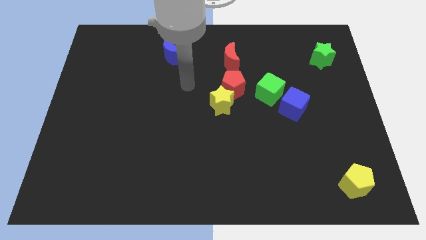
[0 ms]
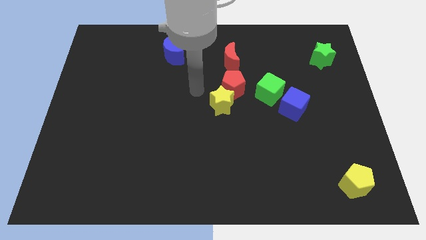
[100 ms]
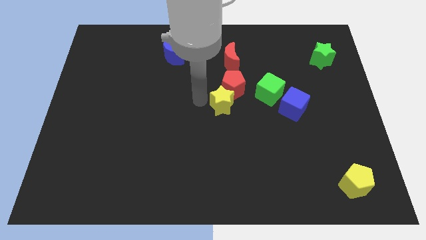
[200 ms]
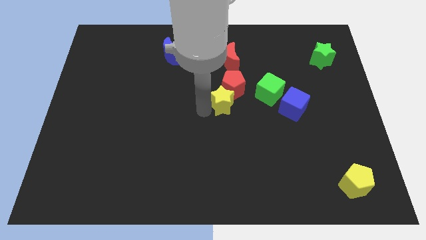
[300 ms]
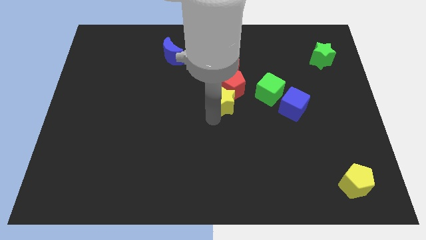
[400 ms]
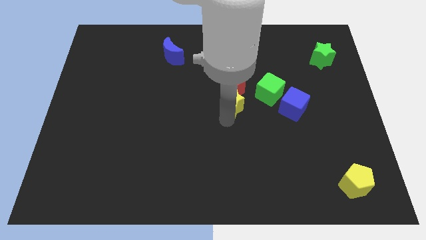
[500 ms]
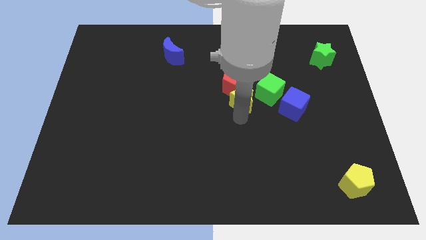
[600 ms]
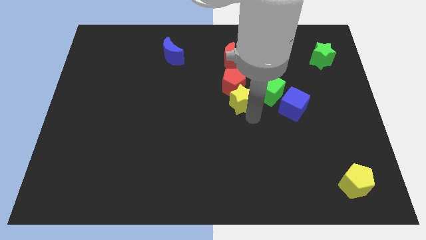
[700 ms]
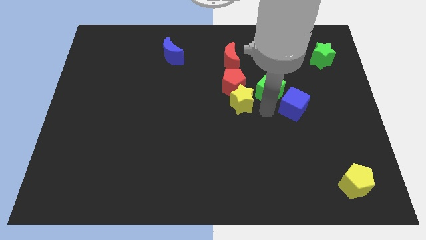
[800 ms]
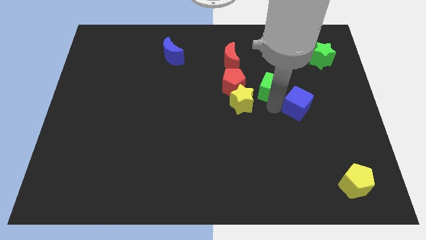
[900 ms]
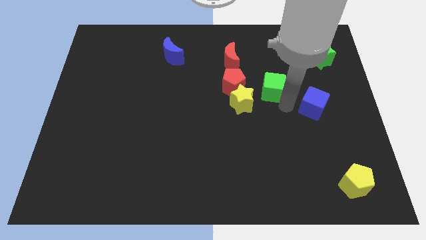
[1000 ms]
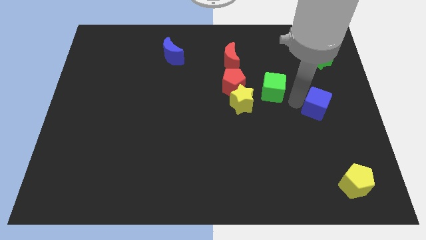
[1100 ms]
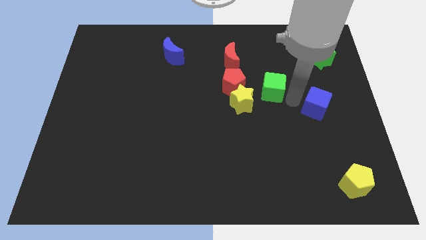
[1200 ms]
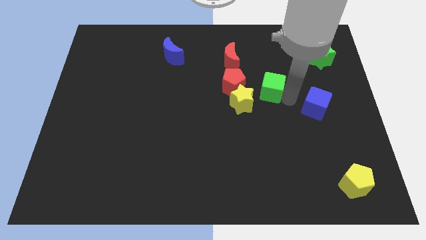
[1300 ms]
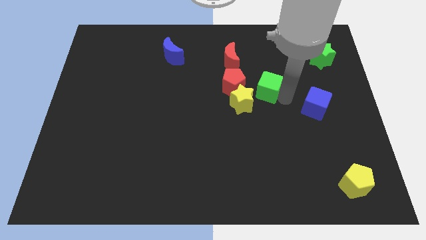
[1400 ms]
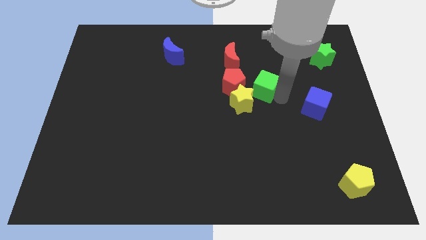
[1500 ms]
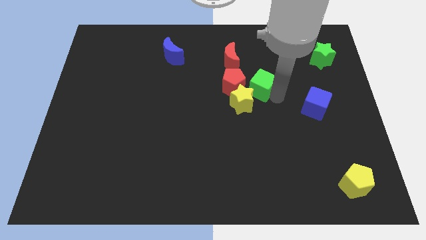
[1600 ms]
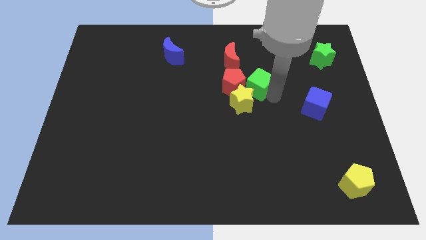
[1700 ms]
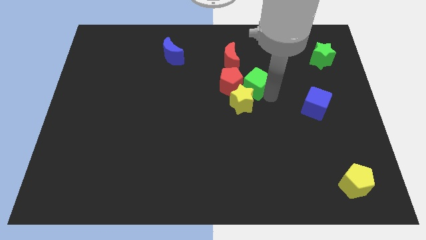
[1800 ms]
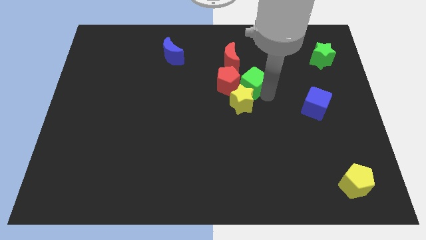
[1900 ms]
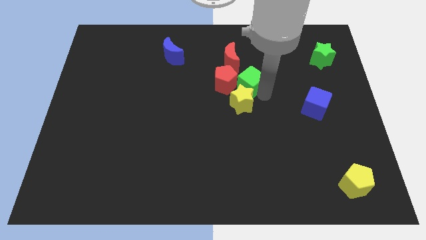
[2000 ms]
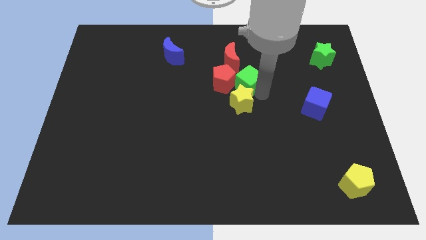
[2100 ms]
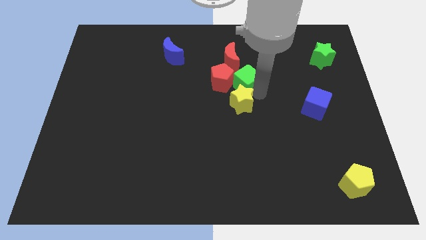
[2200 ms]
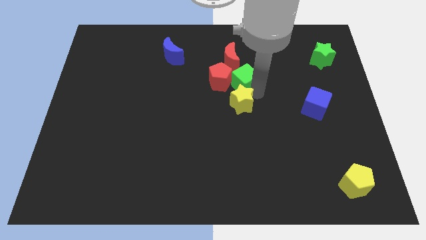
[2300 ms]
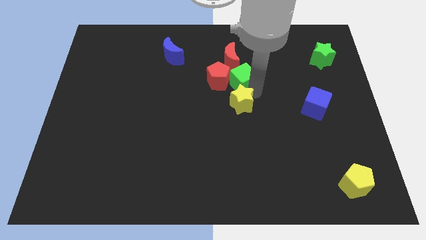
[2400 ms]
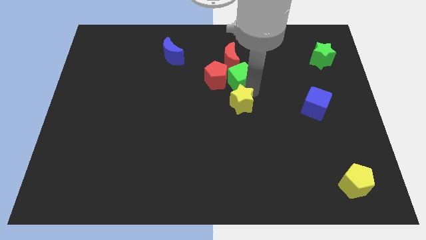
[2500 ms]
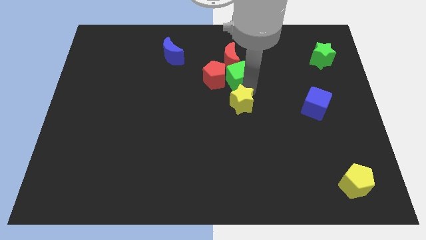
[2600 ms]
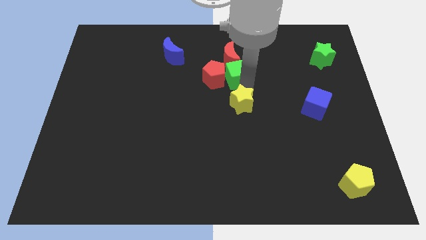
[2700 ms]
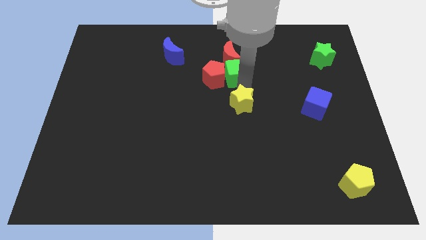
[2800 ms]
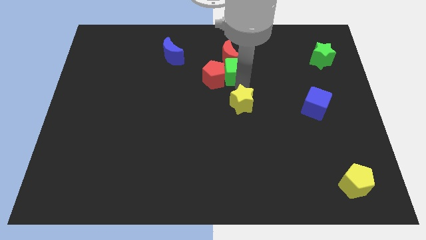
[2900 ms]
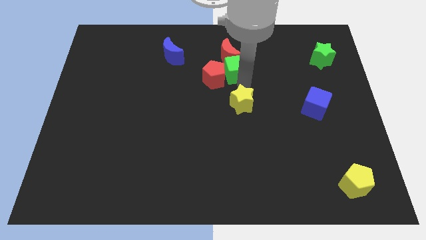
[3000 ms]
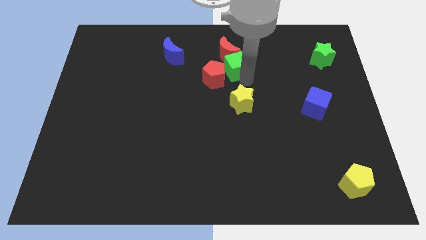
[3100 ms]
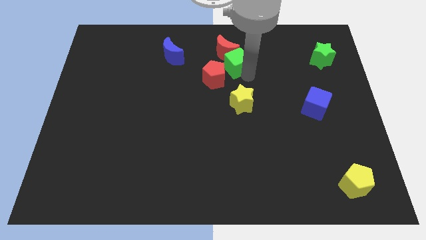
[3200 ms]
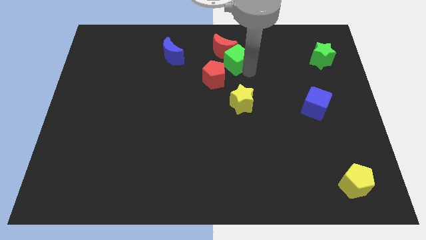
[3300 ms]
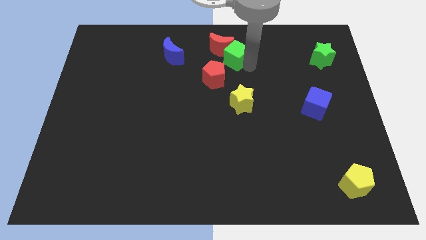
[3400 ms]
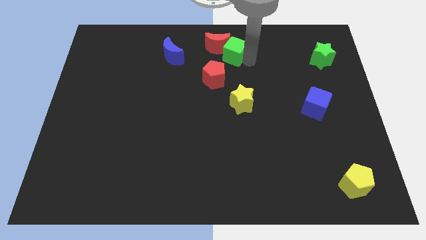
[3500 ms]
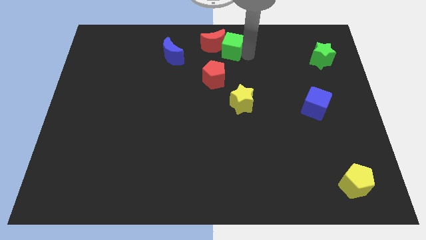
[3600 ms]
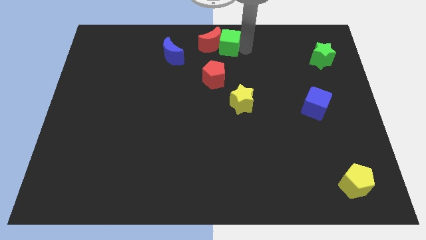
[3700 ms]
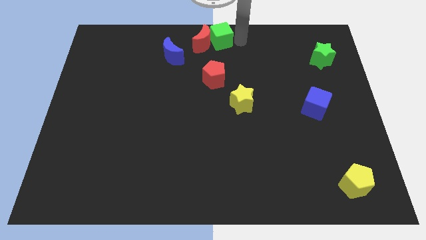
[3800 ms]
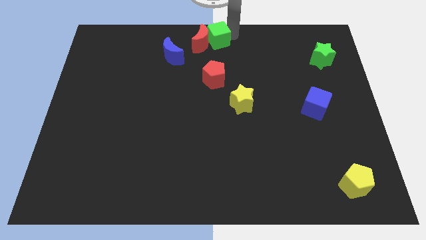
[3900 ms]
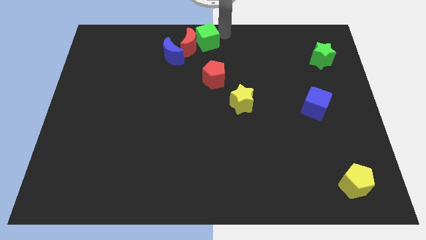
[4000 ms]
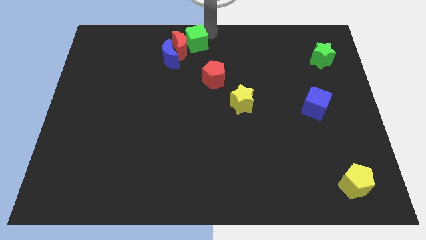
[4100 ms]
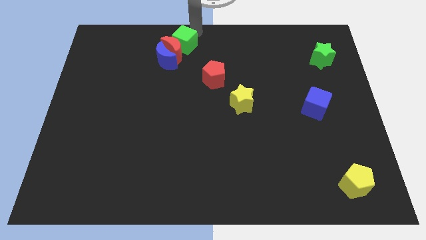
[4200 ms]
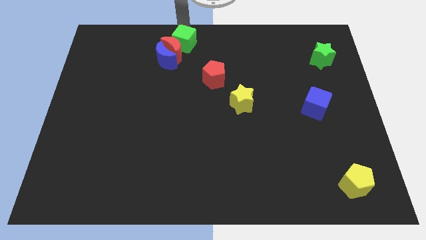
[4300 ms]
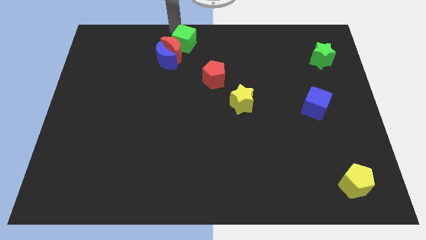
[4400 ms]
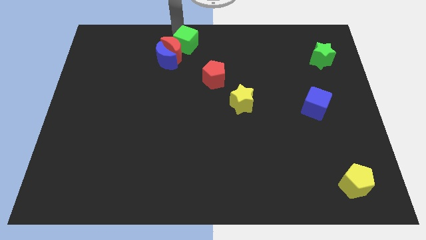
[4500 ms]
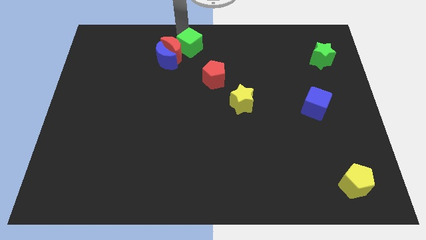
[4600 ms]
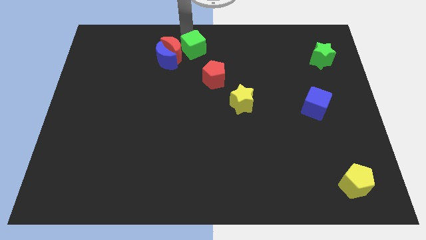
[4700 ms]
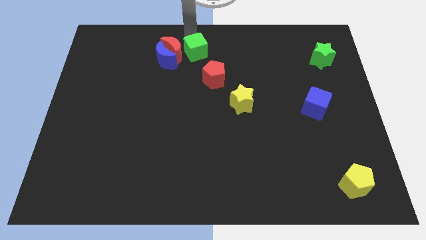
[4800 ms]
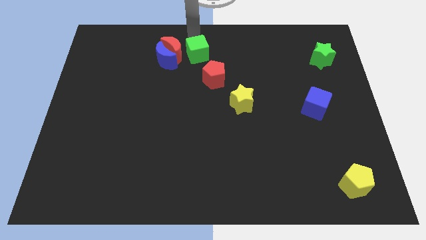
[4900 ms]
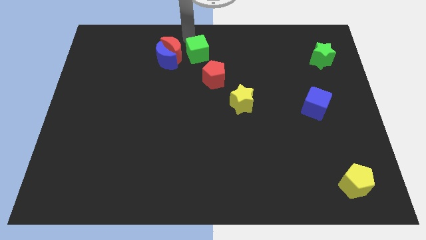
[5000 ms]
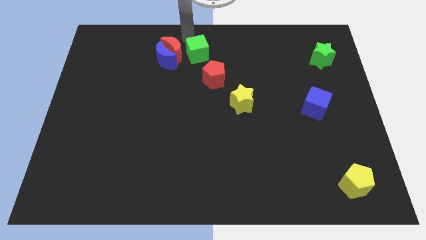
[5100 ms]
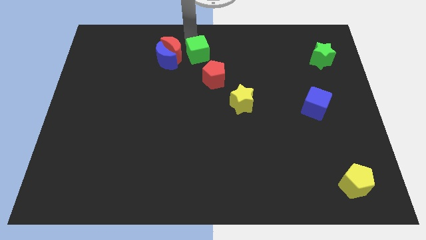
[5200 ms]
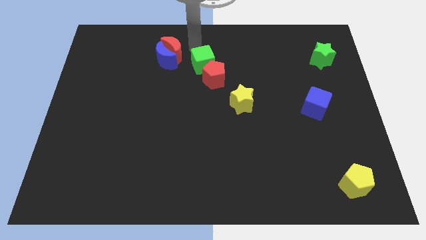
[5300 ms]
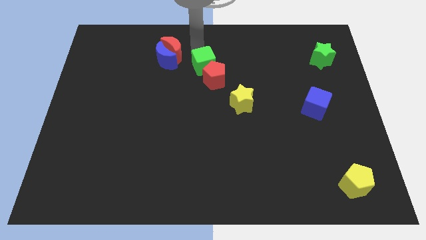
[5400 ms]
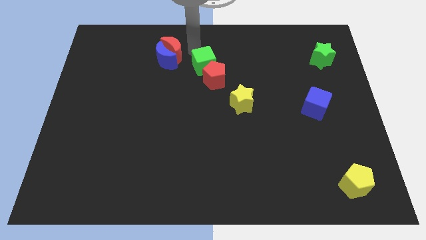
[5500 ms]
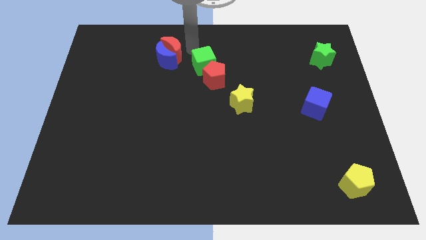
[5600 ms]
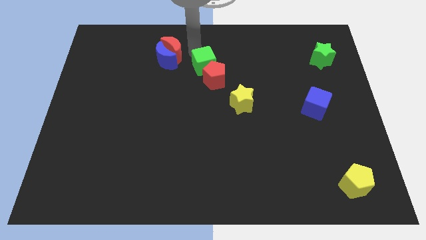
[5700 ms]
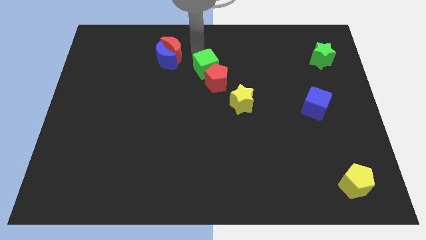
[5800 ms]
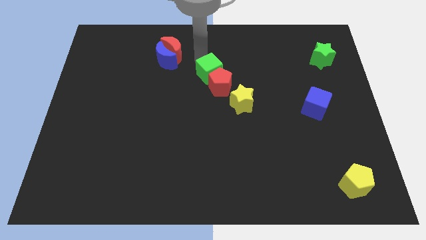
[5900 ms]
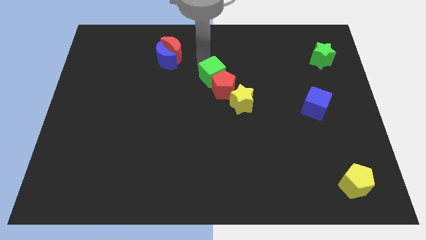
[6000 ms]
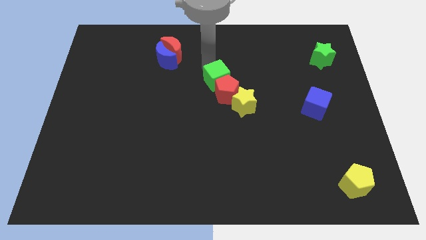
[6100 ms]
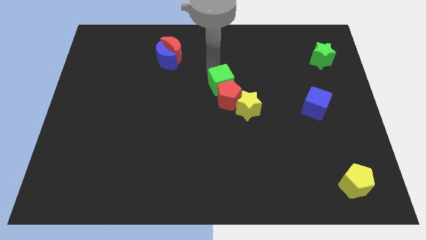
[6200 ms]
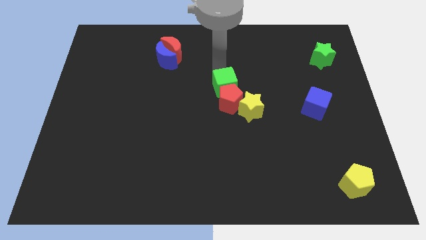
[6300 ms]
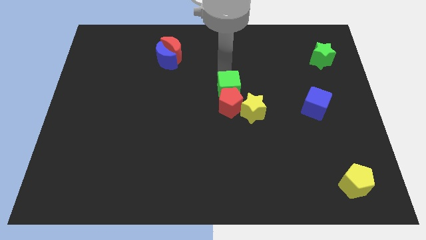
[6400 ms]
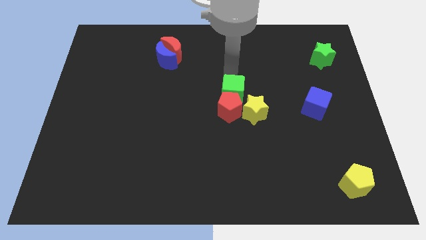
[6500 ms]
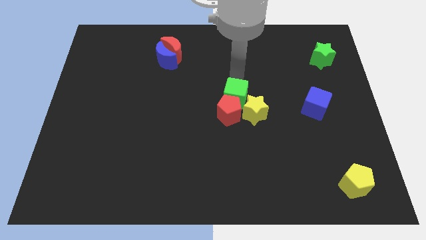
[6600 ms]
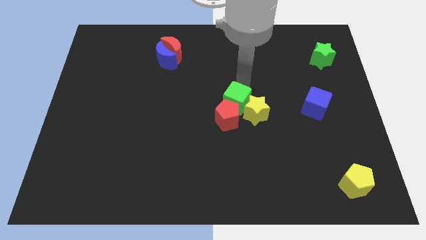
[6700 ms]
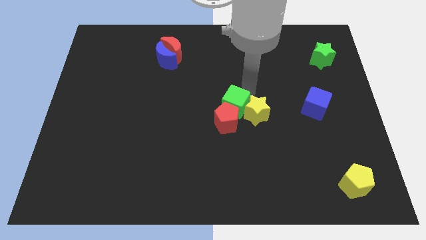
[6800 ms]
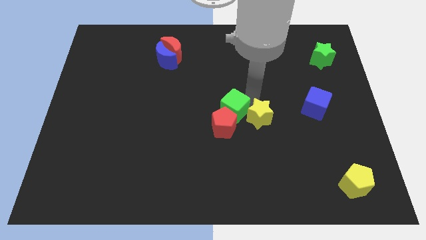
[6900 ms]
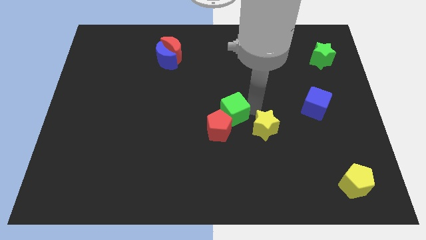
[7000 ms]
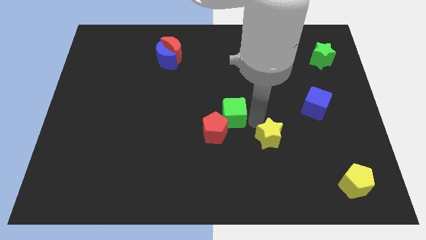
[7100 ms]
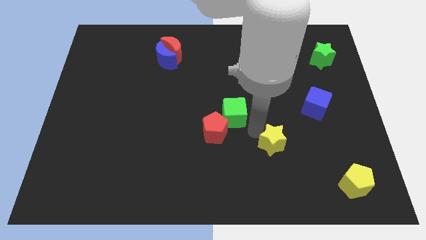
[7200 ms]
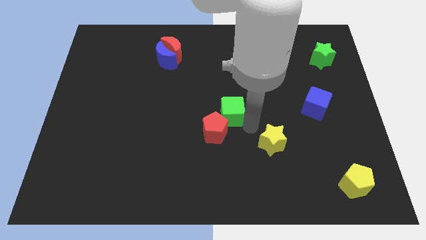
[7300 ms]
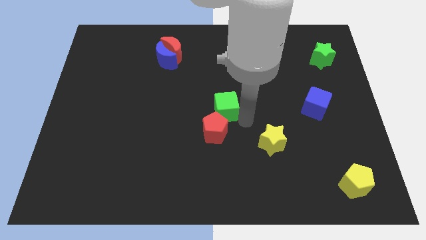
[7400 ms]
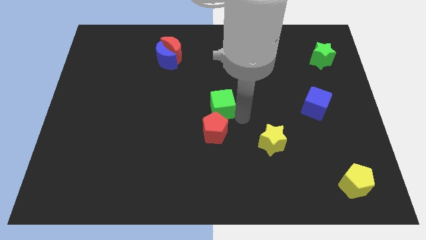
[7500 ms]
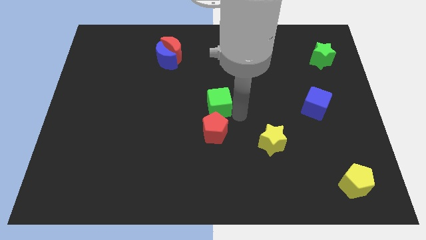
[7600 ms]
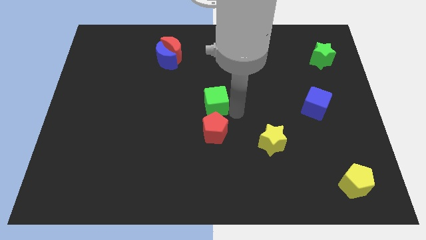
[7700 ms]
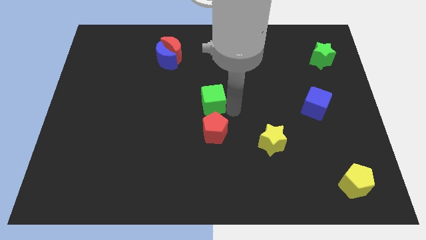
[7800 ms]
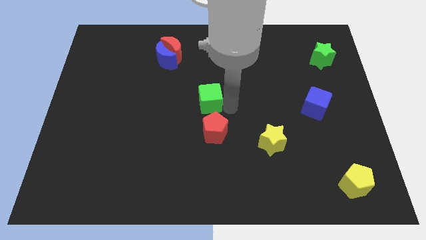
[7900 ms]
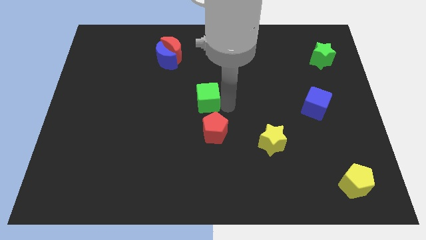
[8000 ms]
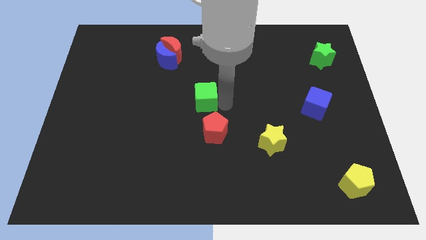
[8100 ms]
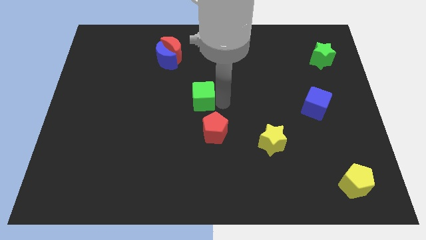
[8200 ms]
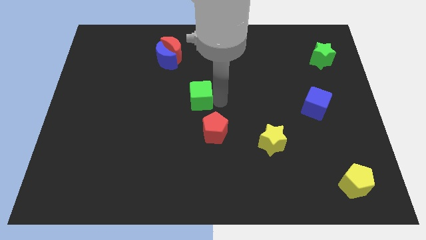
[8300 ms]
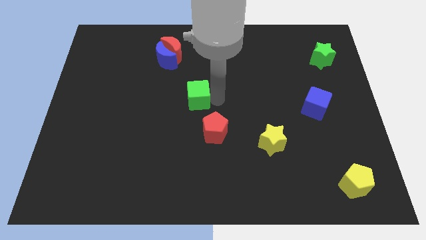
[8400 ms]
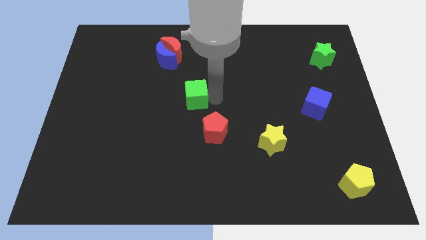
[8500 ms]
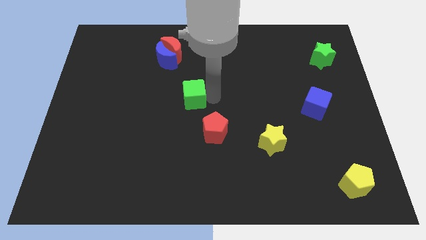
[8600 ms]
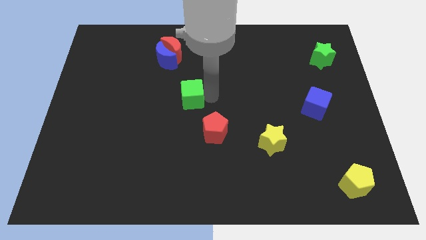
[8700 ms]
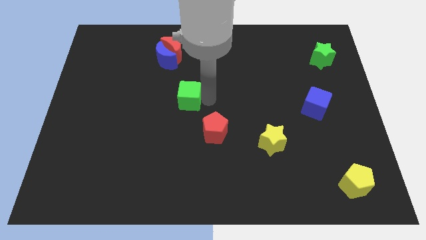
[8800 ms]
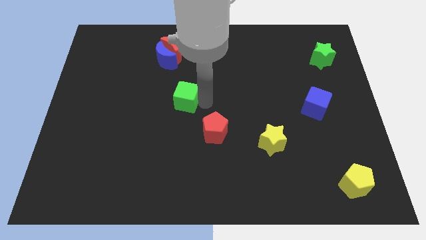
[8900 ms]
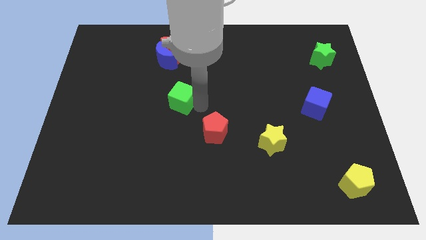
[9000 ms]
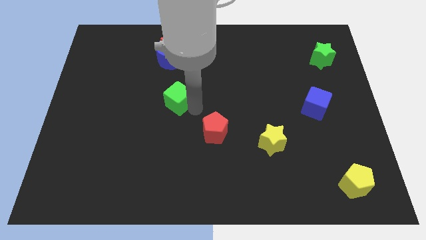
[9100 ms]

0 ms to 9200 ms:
move the green cube to the bottom side of the blue moon
